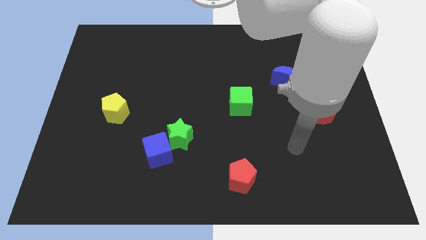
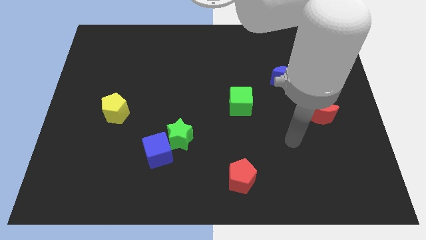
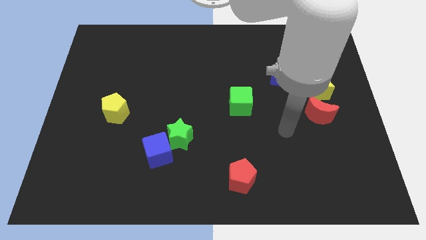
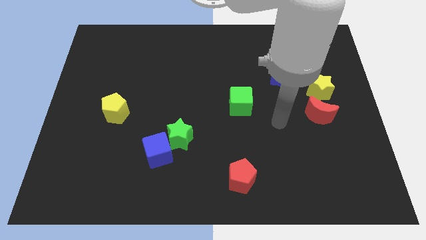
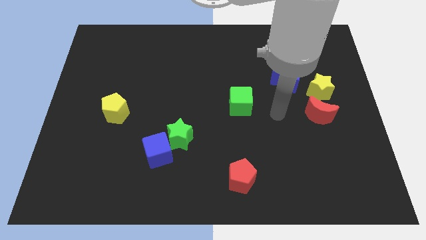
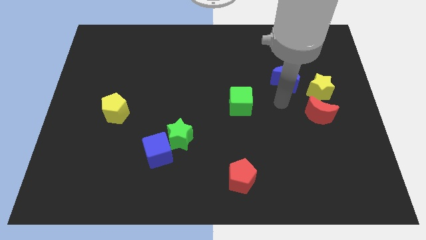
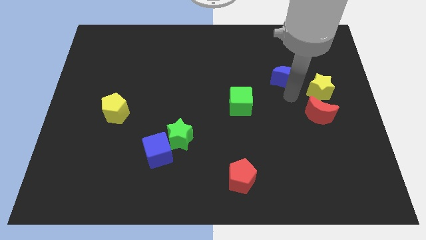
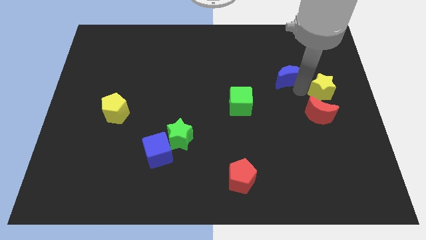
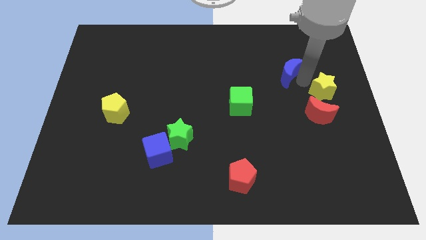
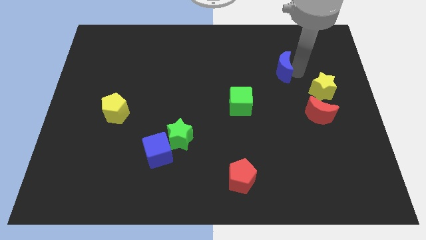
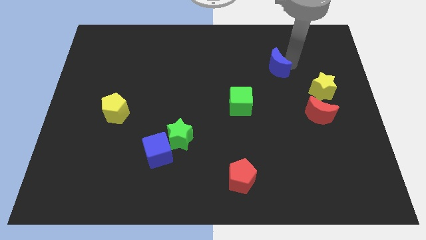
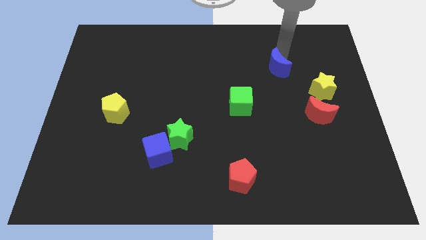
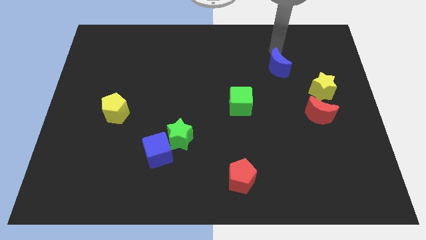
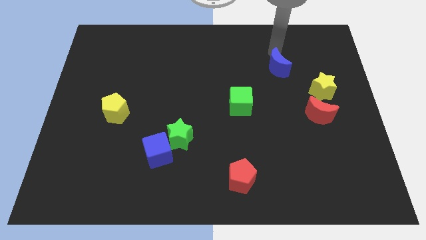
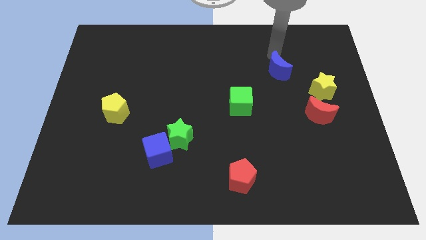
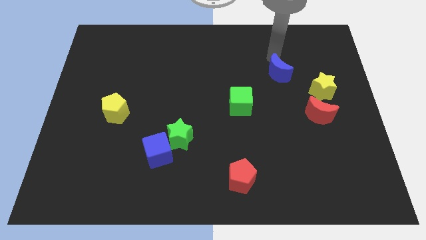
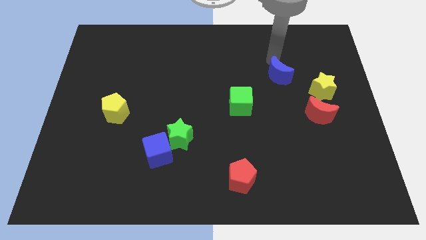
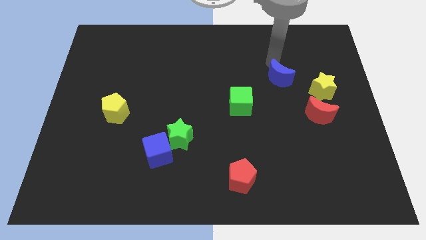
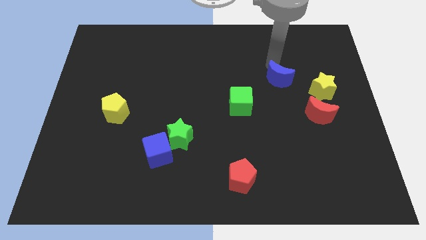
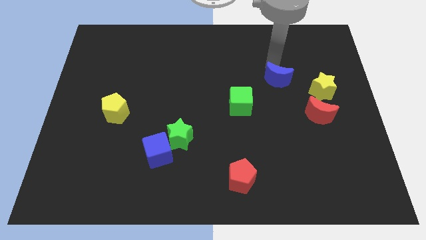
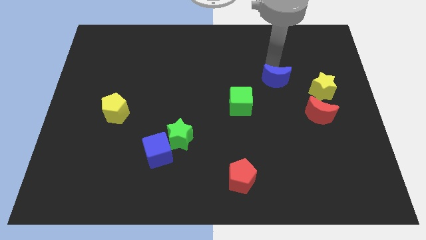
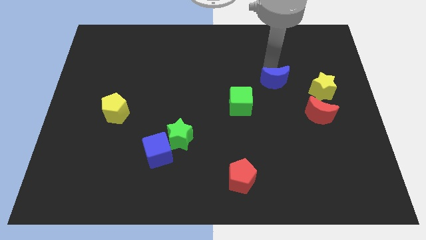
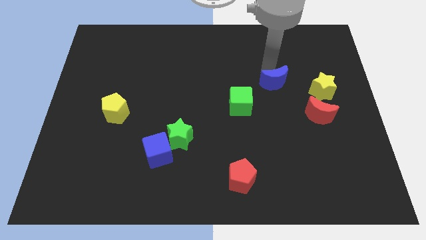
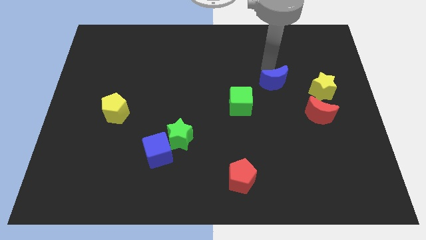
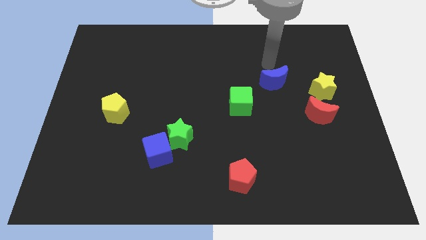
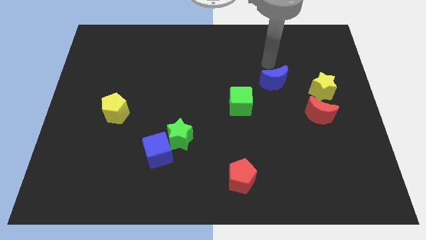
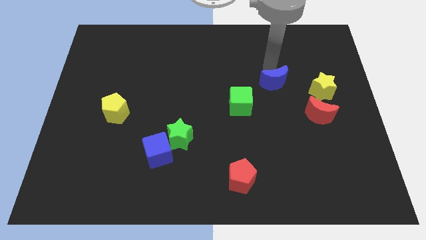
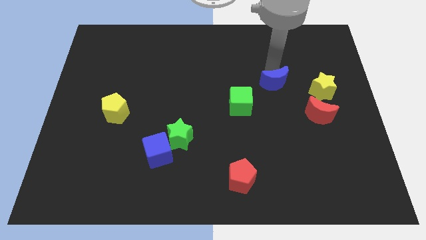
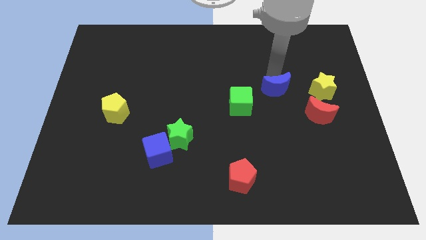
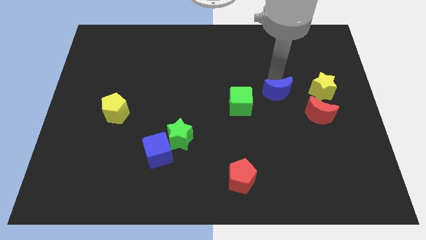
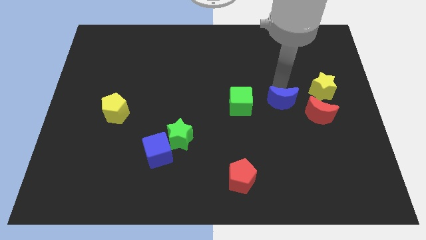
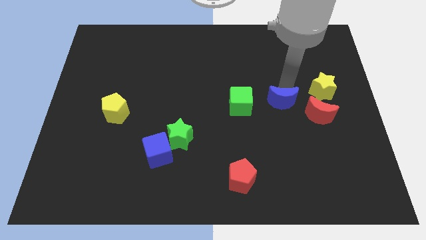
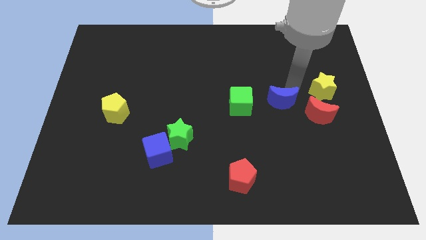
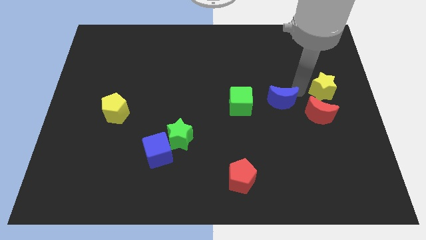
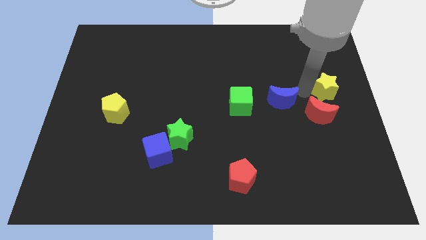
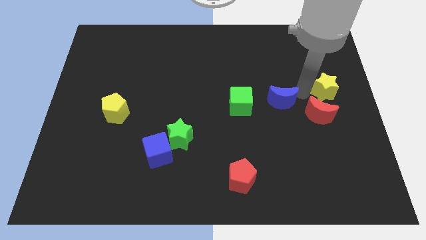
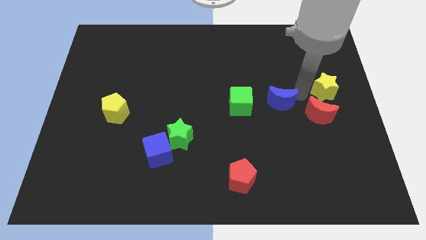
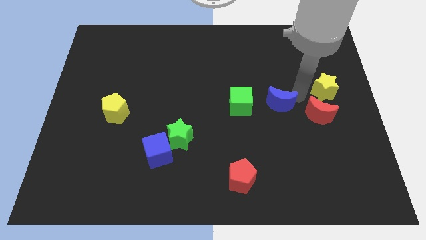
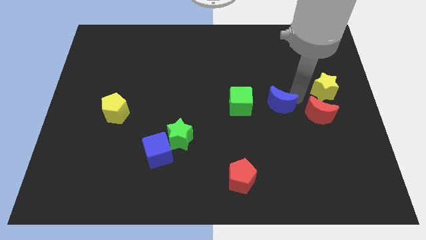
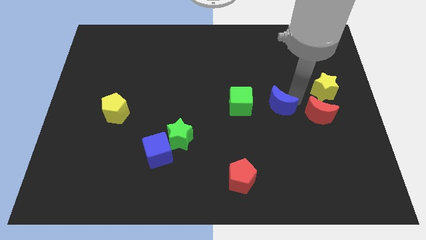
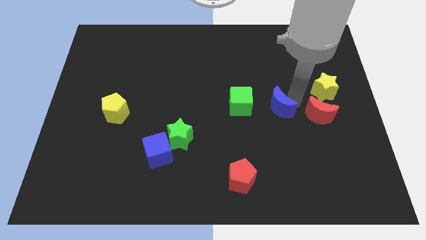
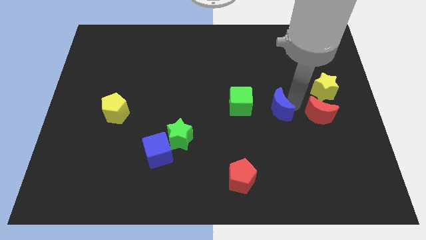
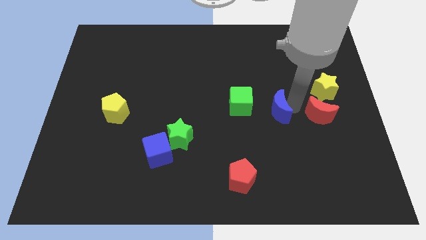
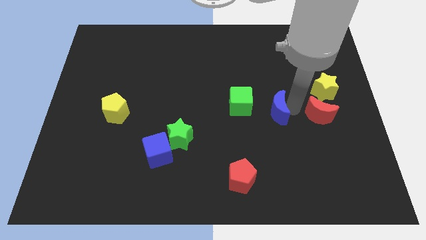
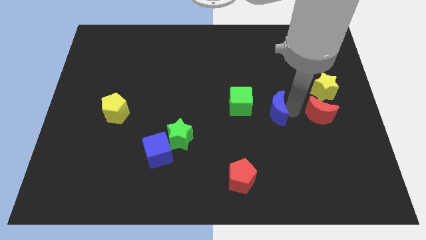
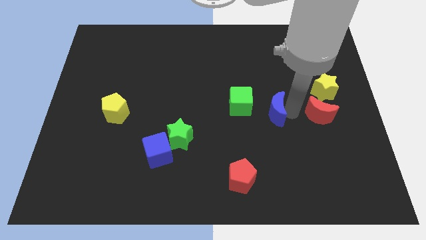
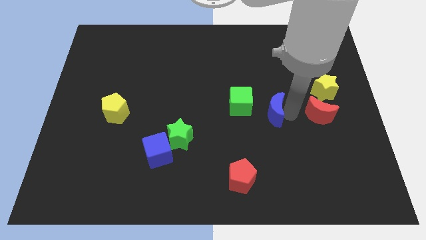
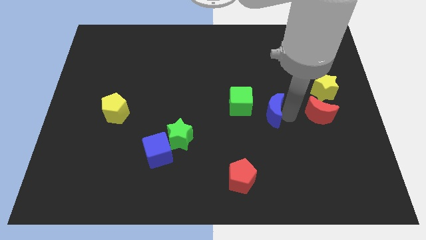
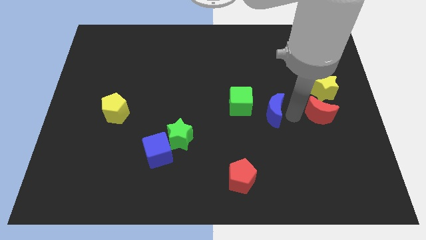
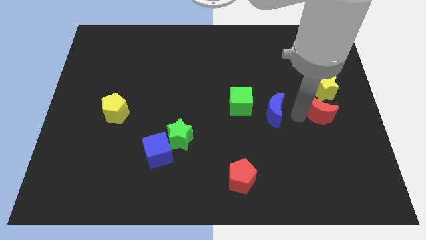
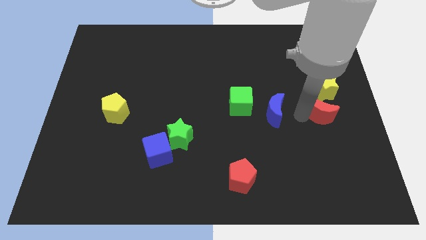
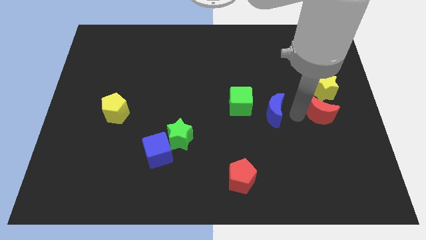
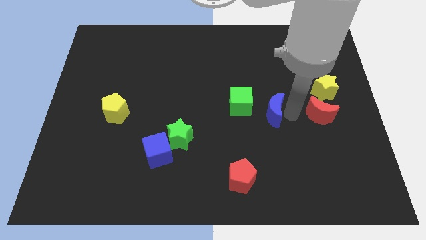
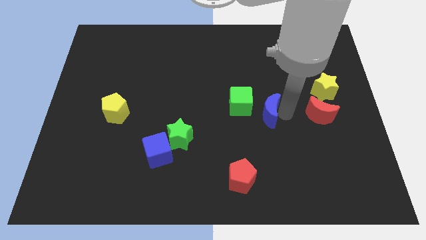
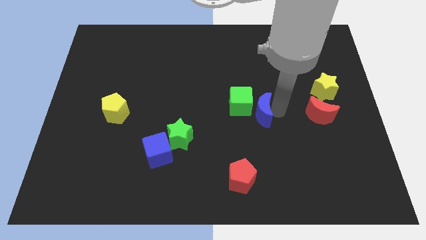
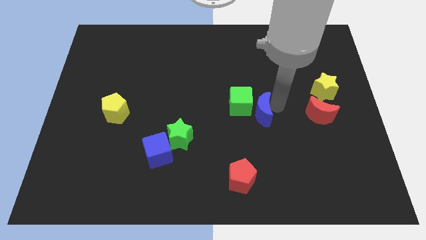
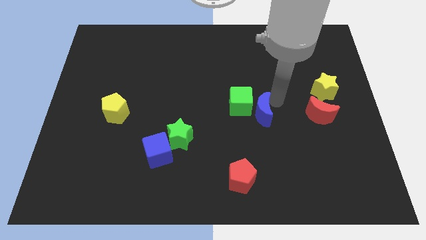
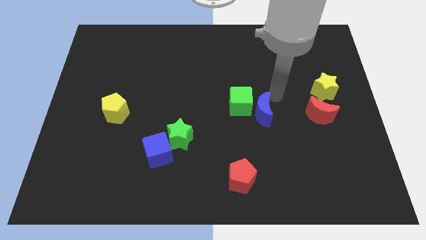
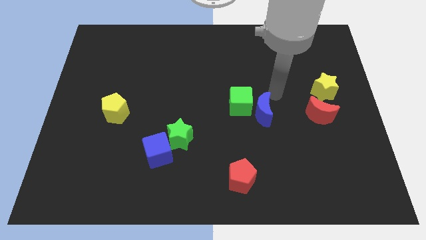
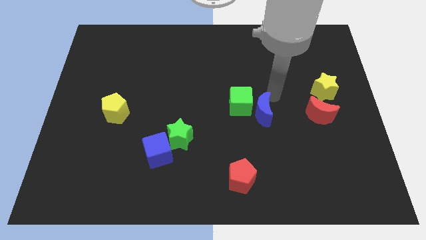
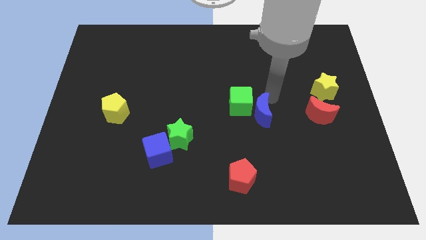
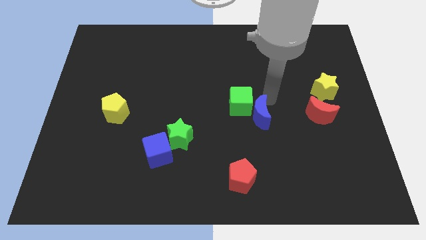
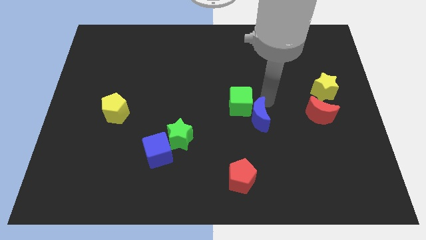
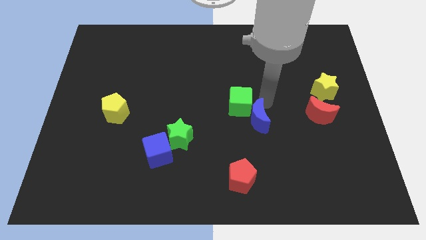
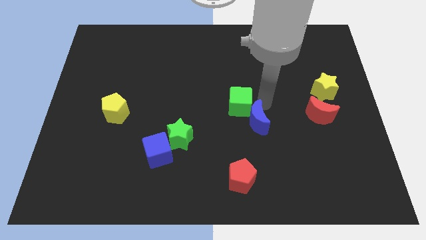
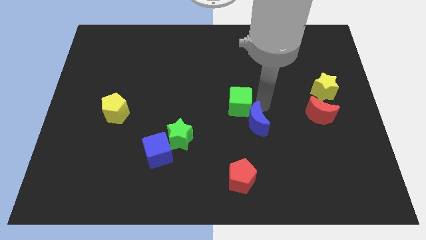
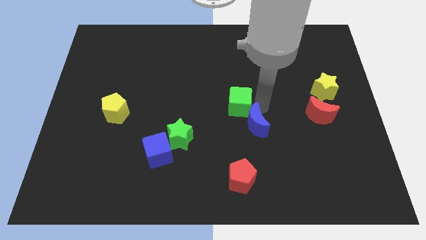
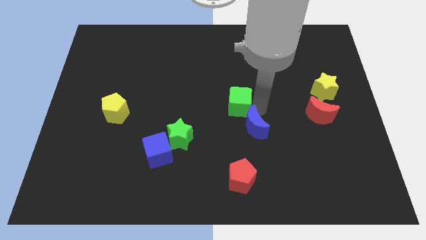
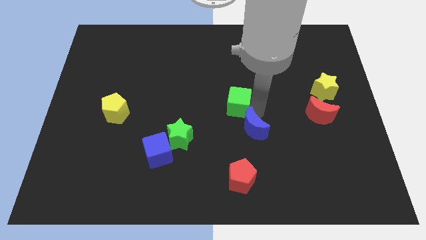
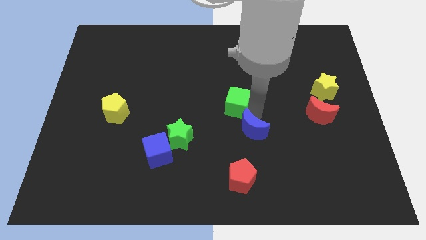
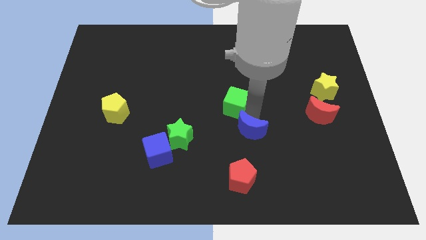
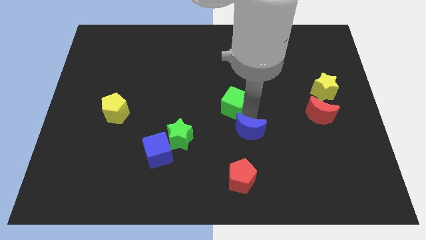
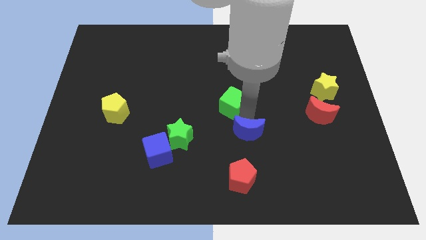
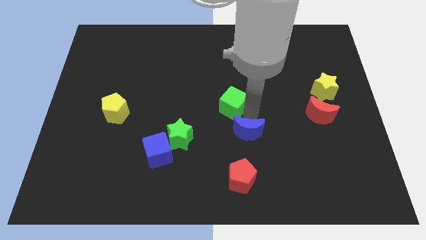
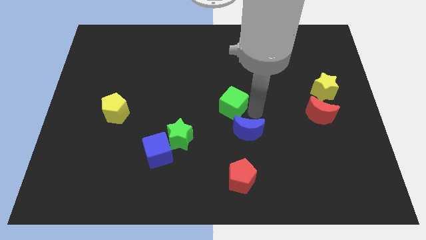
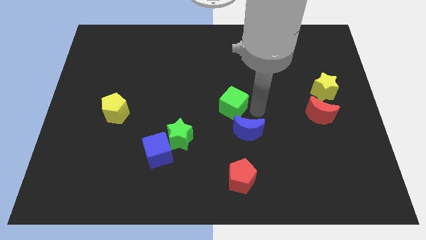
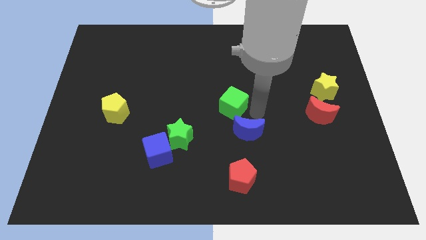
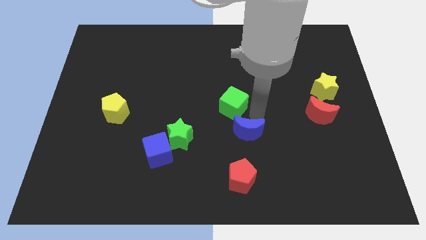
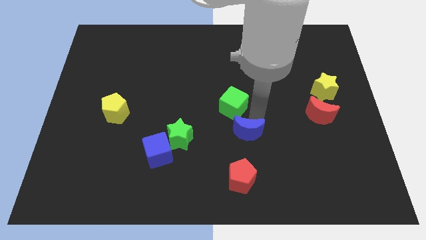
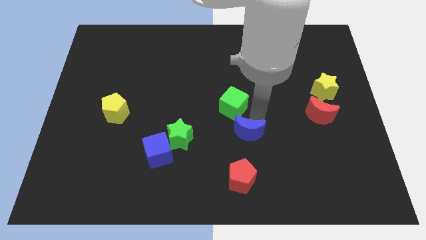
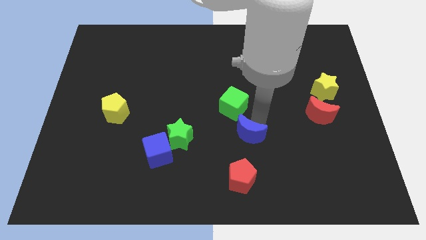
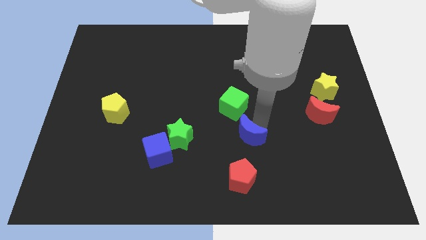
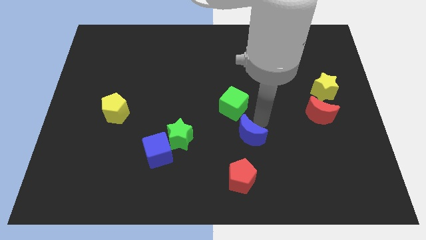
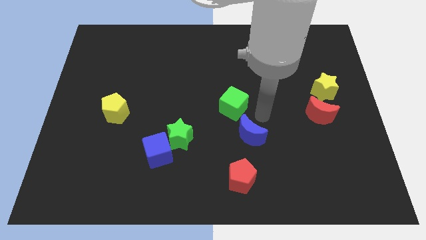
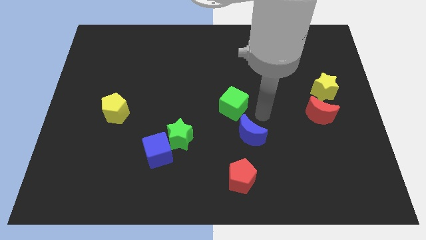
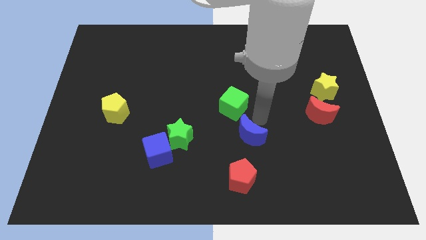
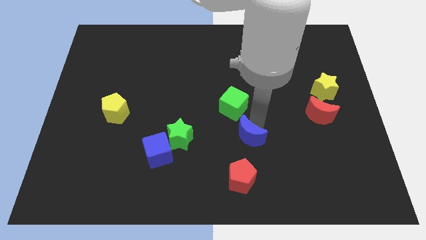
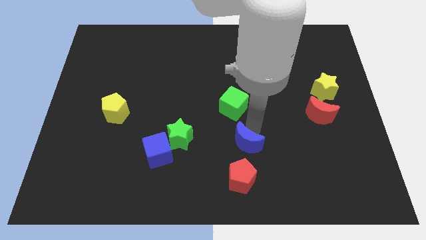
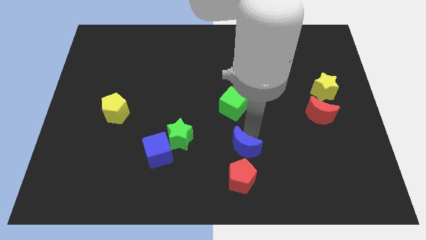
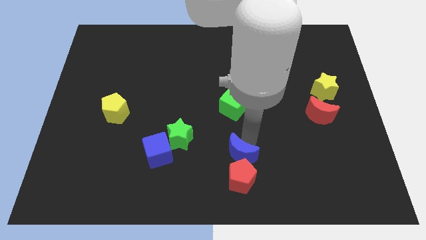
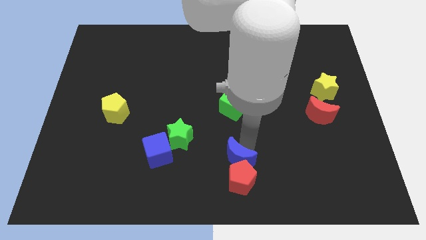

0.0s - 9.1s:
move the blue moon to the bottom side
